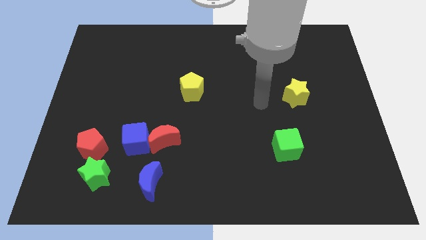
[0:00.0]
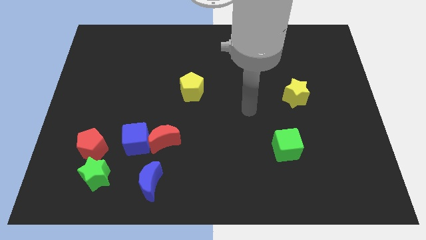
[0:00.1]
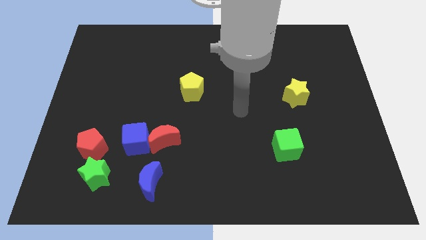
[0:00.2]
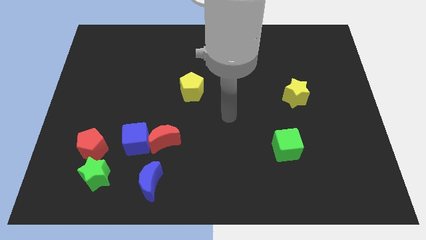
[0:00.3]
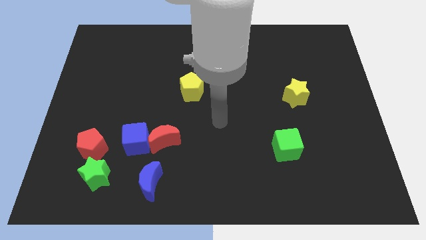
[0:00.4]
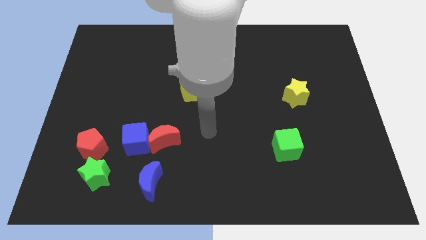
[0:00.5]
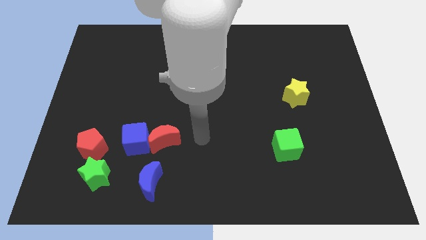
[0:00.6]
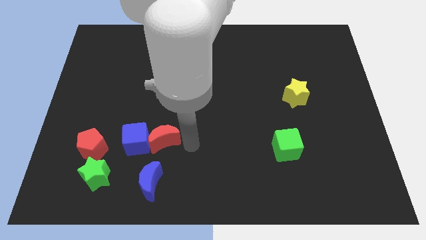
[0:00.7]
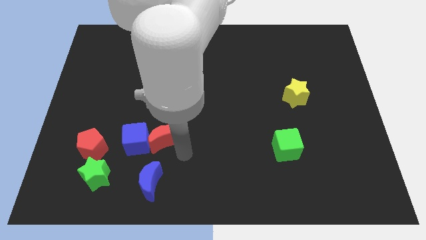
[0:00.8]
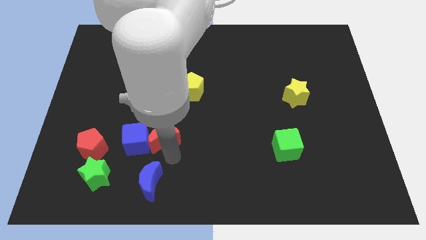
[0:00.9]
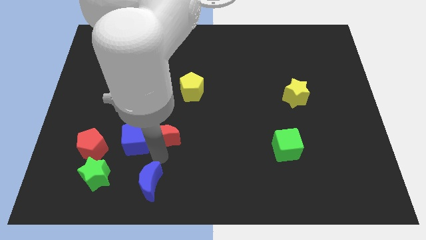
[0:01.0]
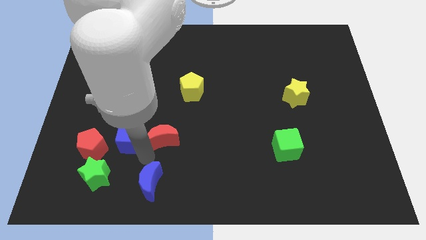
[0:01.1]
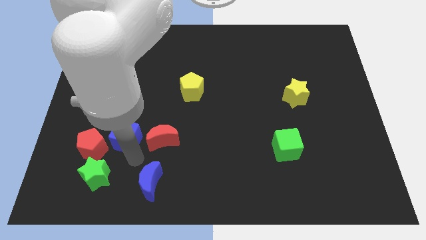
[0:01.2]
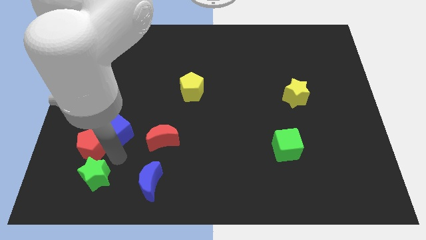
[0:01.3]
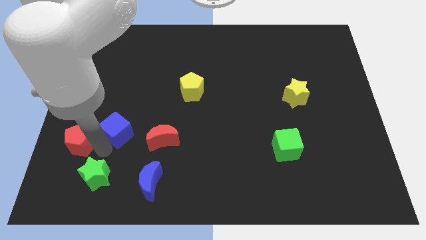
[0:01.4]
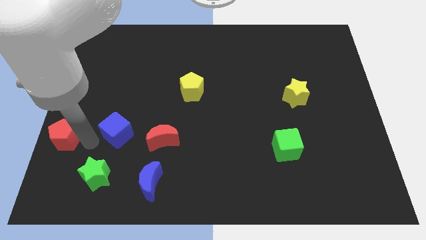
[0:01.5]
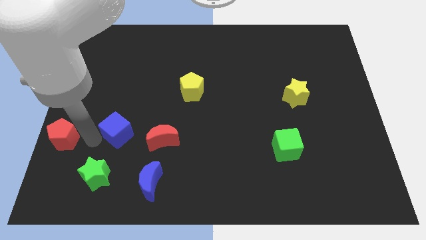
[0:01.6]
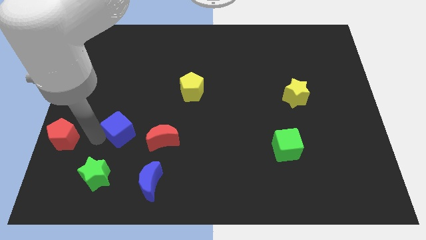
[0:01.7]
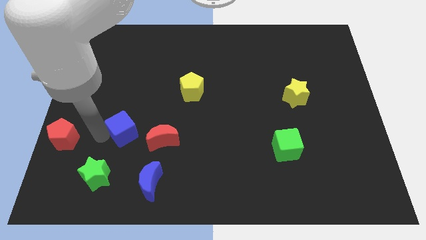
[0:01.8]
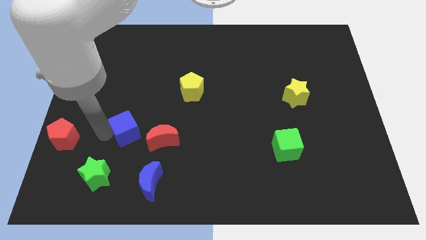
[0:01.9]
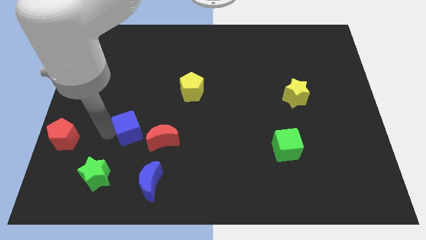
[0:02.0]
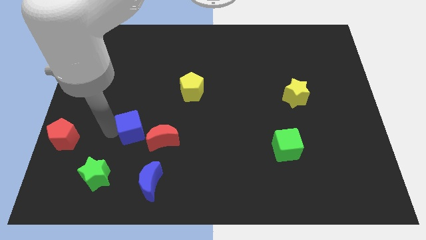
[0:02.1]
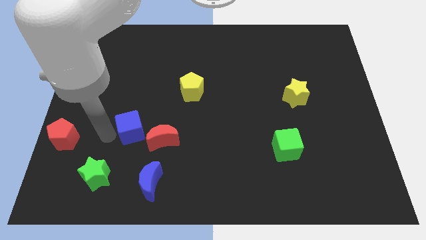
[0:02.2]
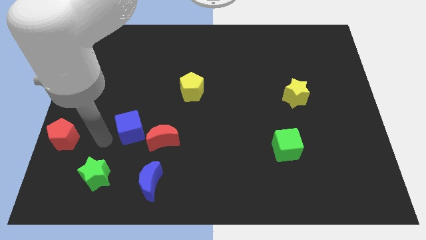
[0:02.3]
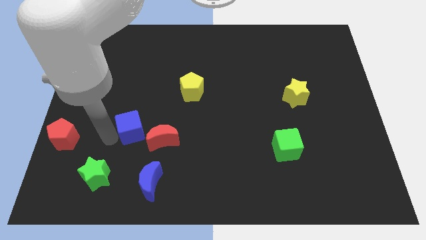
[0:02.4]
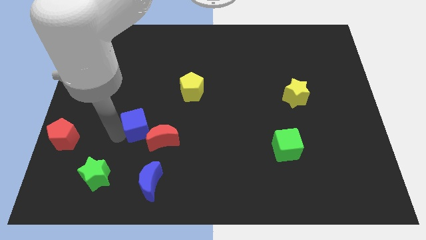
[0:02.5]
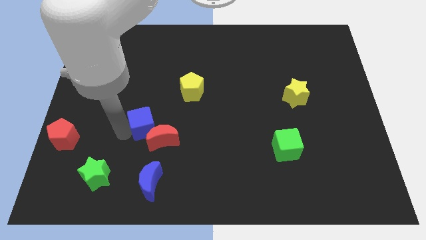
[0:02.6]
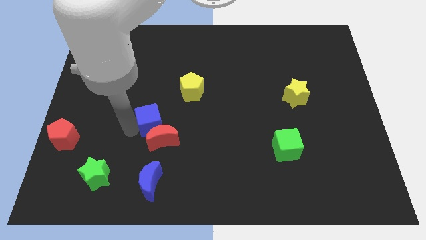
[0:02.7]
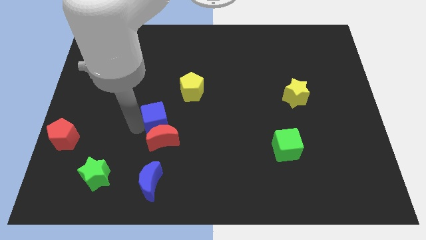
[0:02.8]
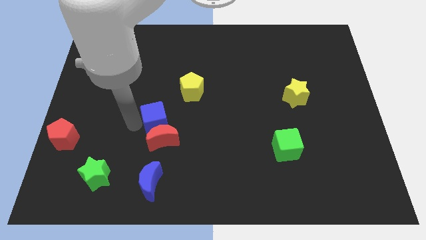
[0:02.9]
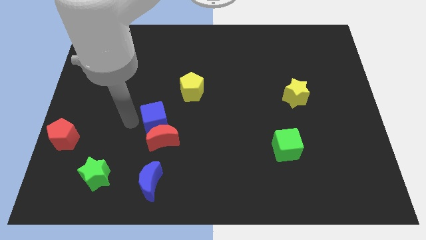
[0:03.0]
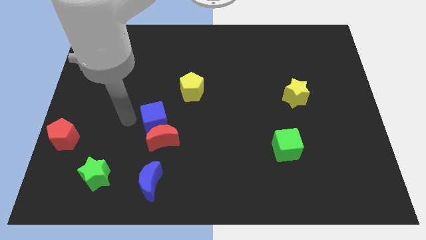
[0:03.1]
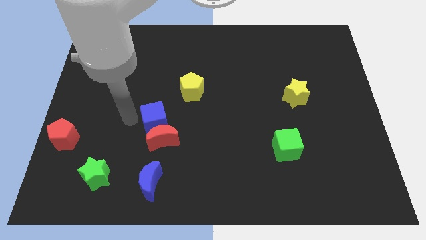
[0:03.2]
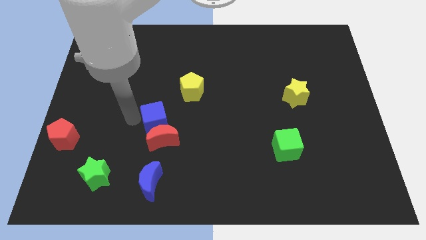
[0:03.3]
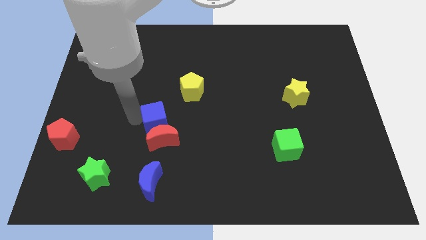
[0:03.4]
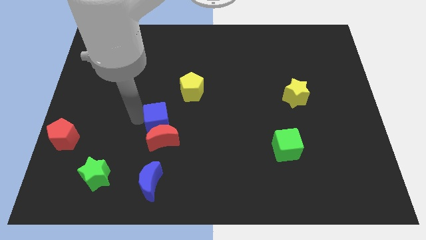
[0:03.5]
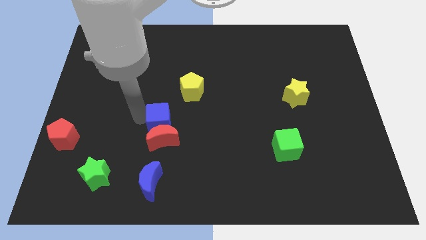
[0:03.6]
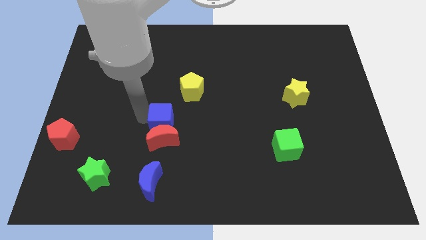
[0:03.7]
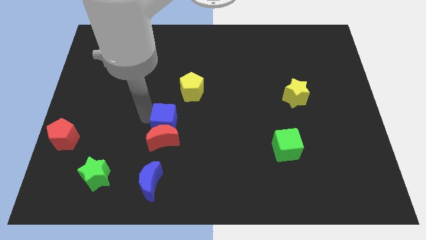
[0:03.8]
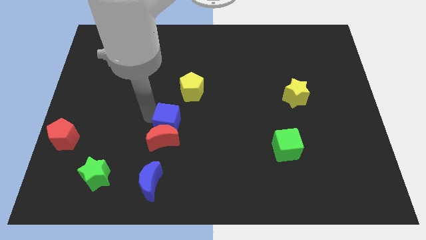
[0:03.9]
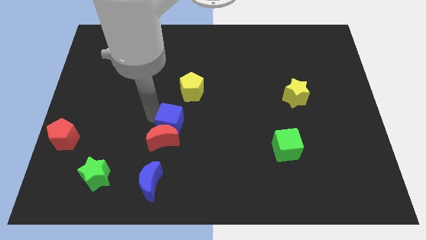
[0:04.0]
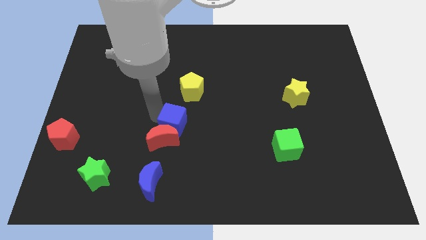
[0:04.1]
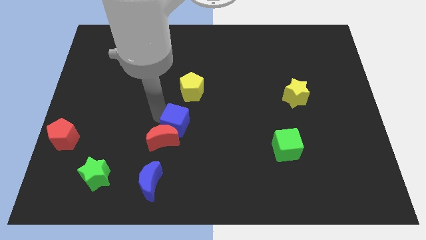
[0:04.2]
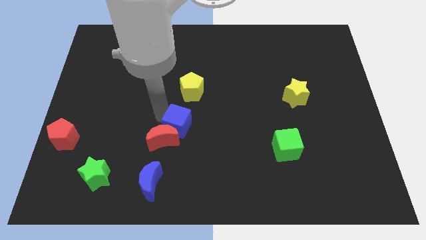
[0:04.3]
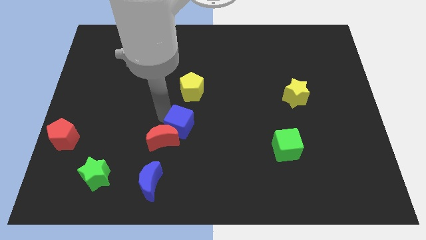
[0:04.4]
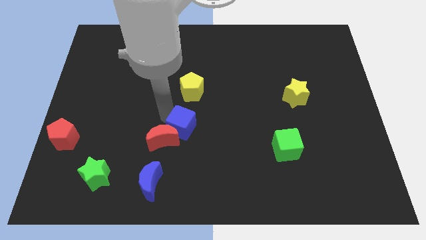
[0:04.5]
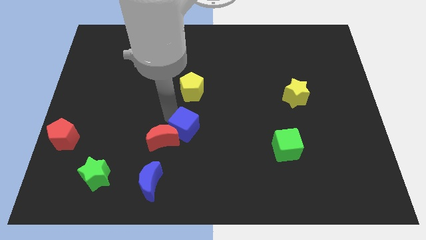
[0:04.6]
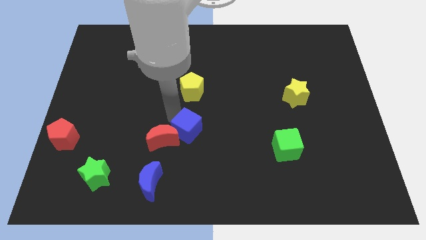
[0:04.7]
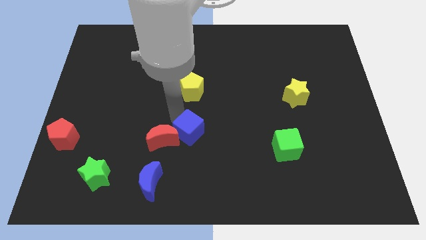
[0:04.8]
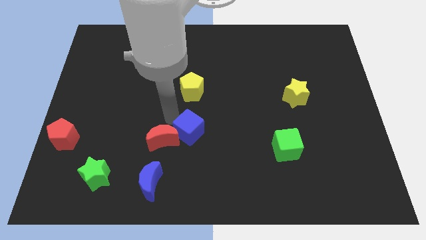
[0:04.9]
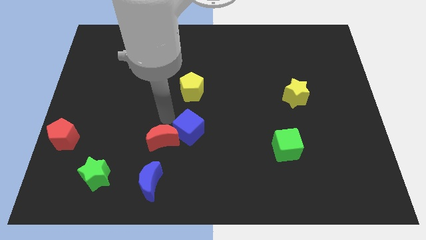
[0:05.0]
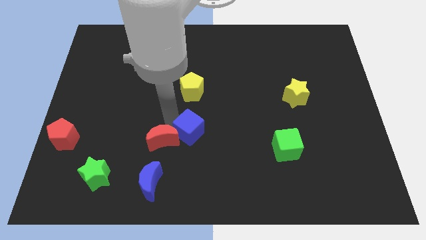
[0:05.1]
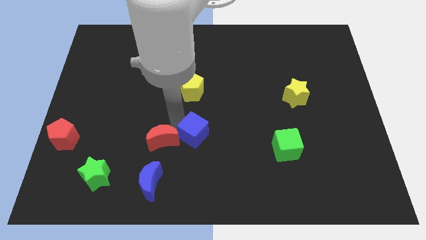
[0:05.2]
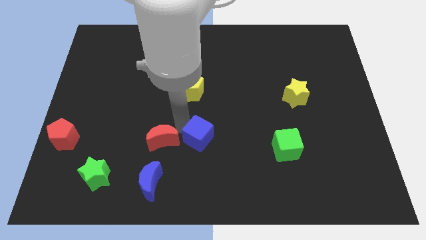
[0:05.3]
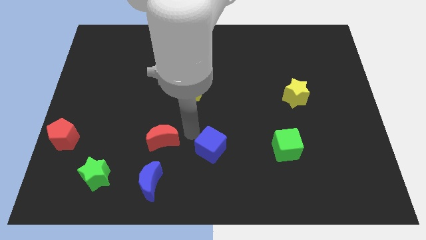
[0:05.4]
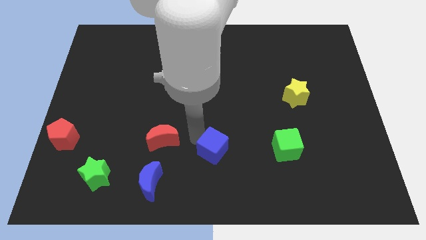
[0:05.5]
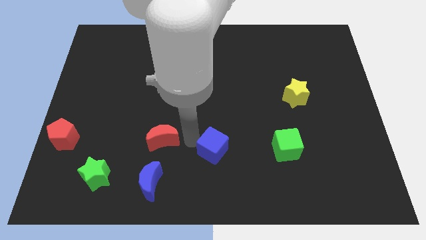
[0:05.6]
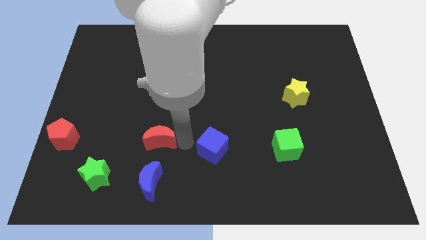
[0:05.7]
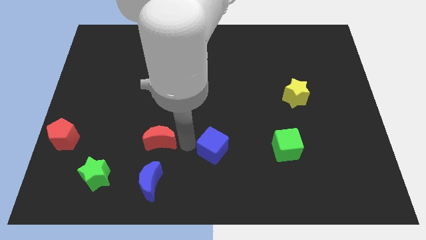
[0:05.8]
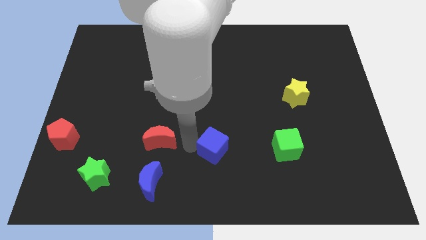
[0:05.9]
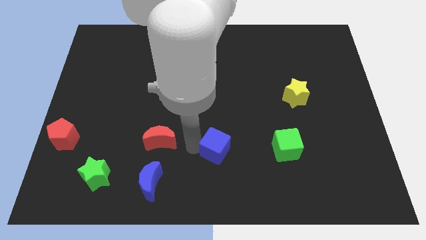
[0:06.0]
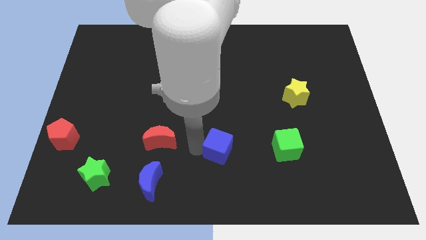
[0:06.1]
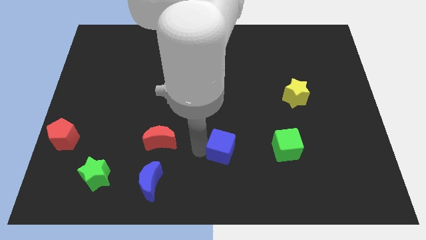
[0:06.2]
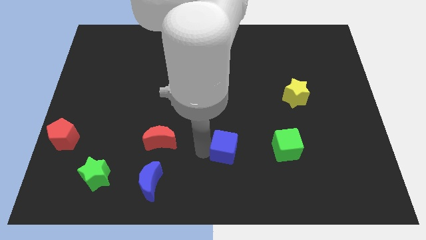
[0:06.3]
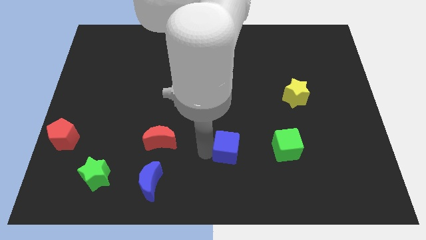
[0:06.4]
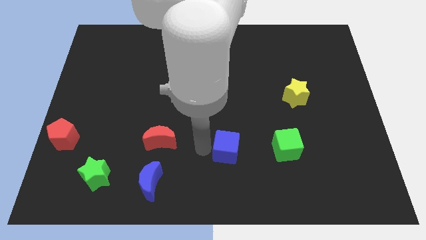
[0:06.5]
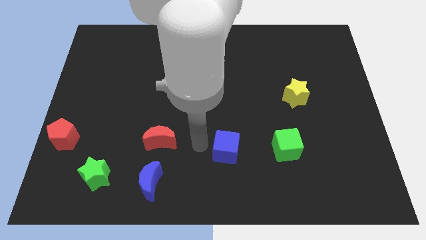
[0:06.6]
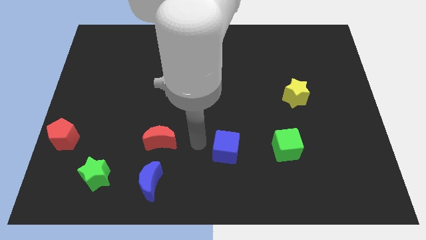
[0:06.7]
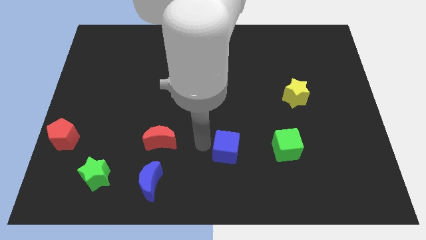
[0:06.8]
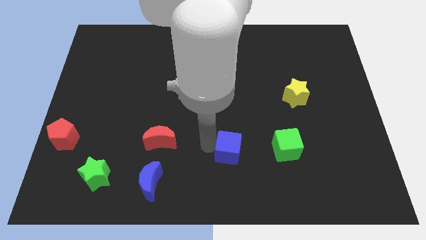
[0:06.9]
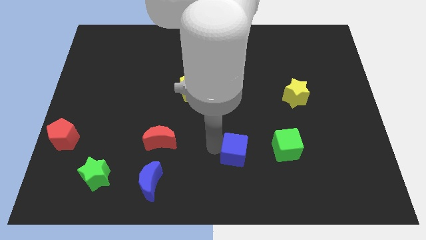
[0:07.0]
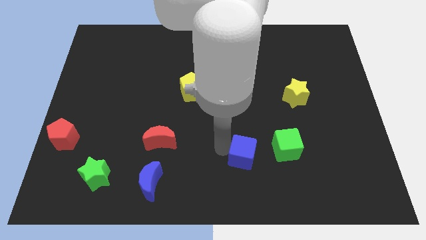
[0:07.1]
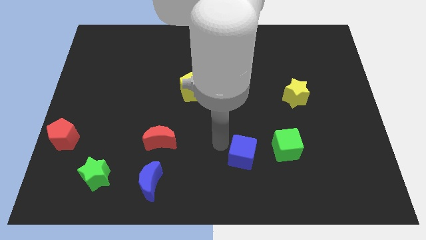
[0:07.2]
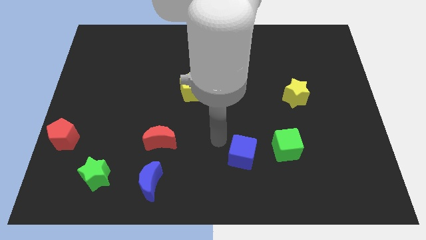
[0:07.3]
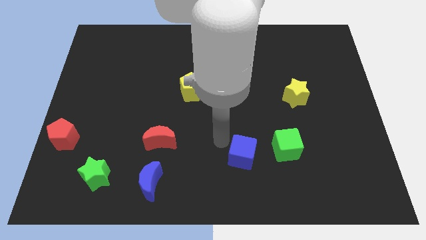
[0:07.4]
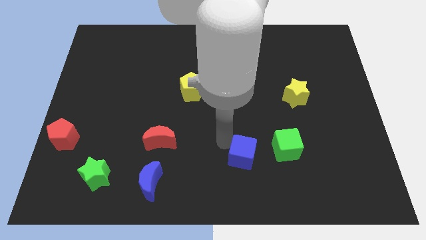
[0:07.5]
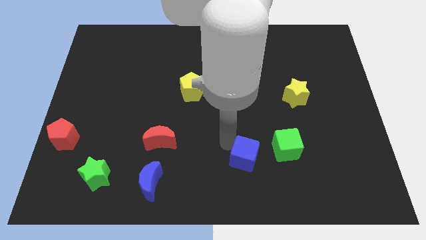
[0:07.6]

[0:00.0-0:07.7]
move the blue cube diagonally down and to the left of the green cube
